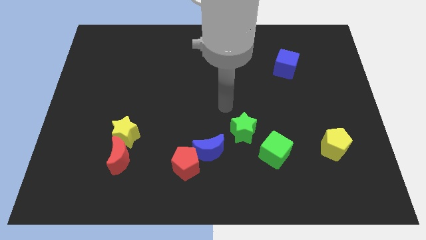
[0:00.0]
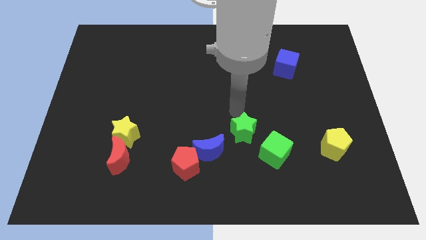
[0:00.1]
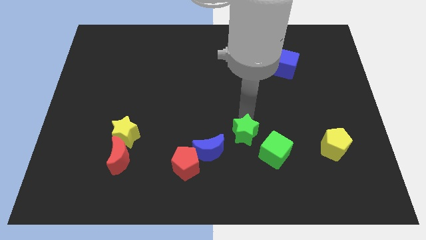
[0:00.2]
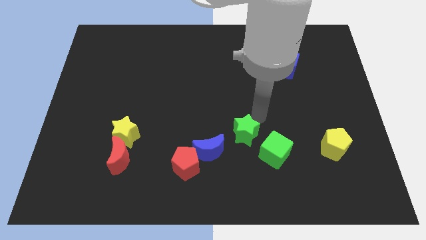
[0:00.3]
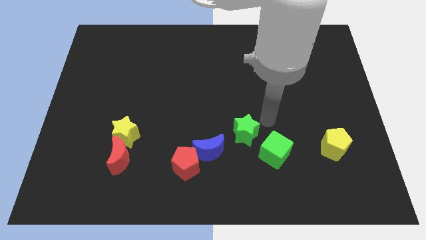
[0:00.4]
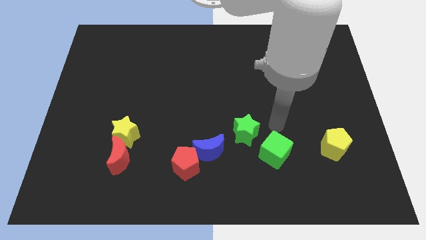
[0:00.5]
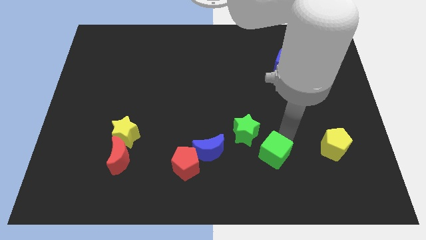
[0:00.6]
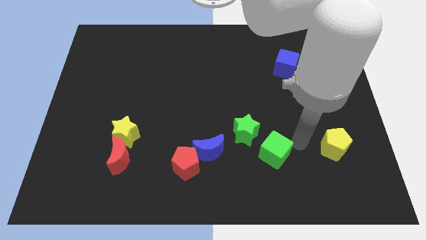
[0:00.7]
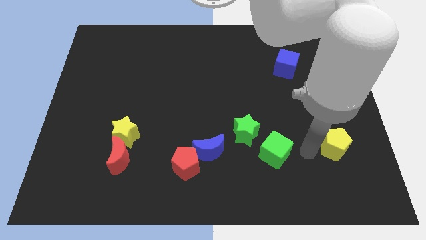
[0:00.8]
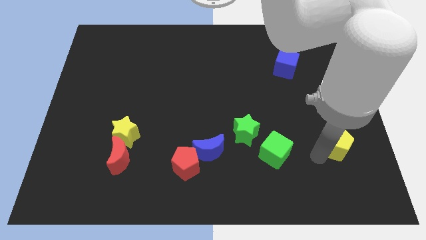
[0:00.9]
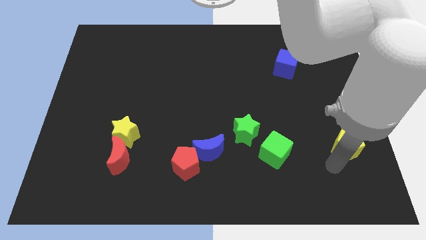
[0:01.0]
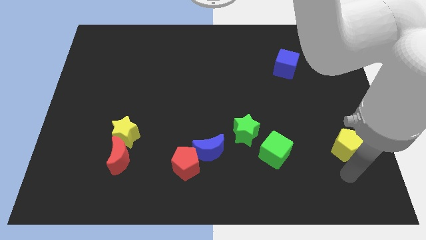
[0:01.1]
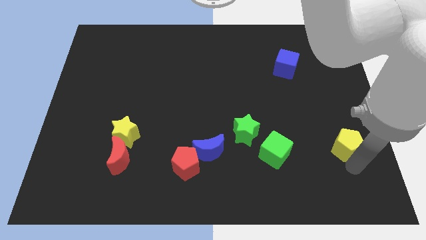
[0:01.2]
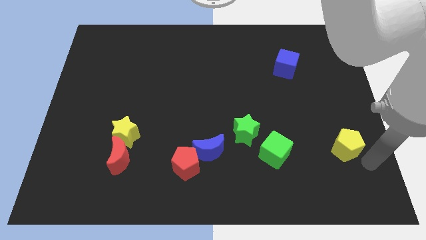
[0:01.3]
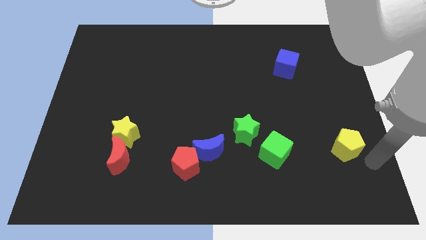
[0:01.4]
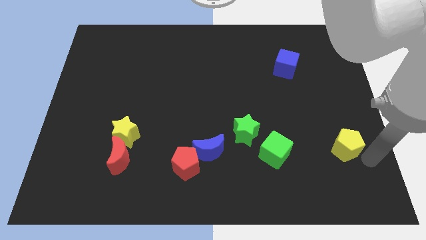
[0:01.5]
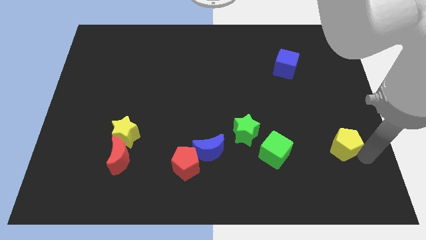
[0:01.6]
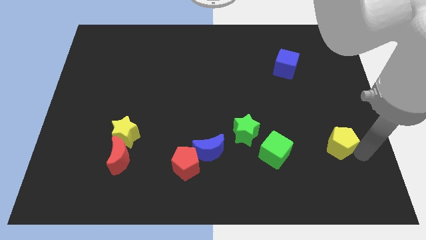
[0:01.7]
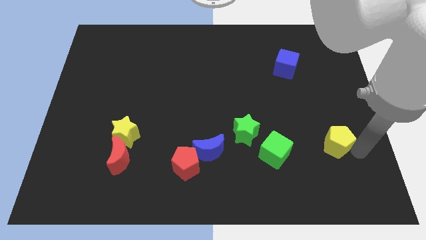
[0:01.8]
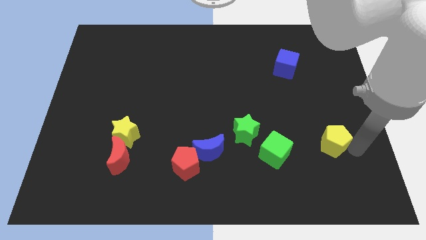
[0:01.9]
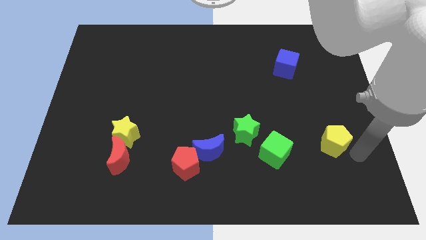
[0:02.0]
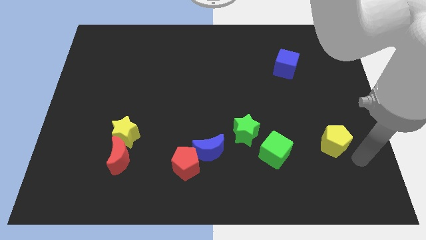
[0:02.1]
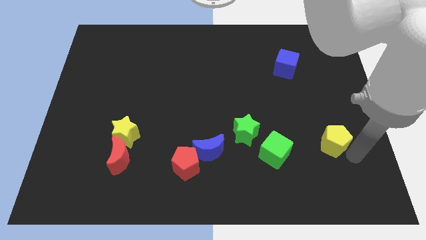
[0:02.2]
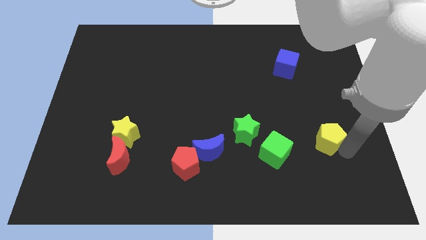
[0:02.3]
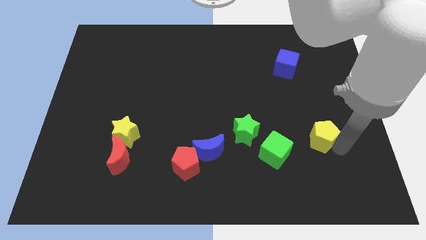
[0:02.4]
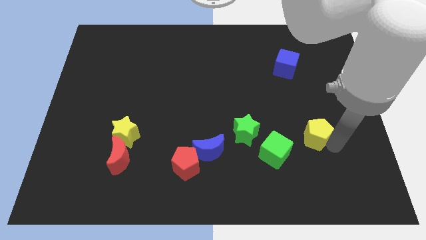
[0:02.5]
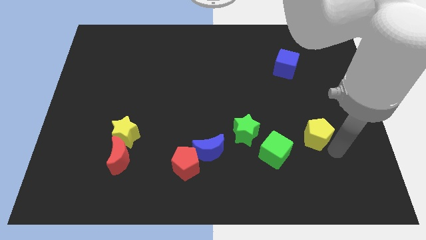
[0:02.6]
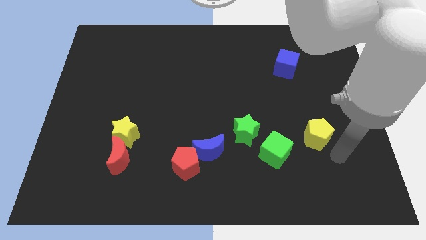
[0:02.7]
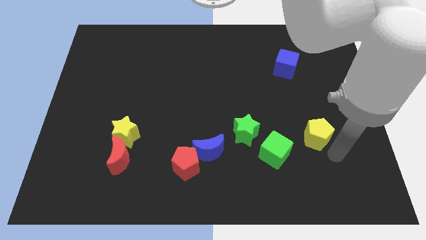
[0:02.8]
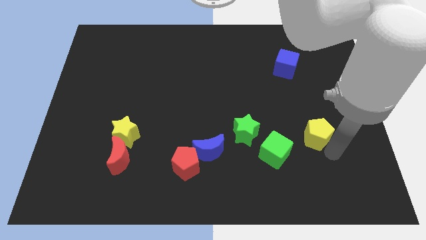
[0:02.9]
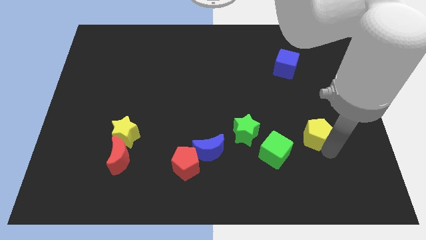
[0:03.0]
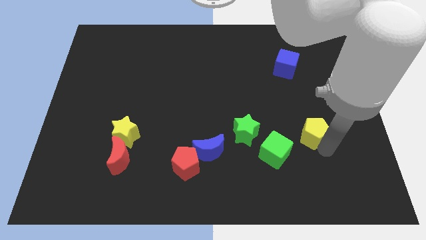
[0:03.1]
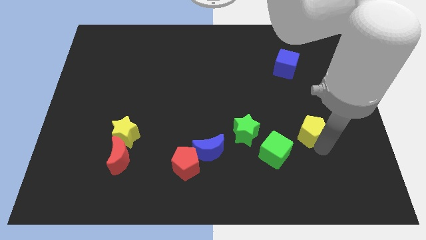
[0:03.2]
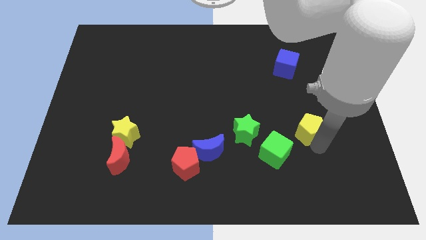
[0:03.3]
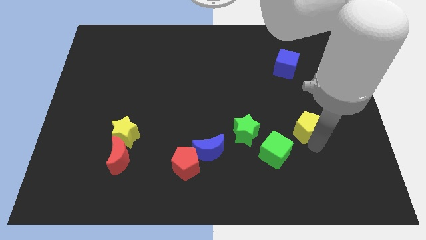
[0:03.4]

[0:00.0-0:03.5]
move the yellow pentagon somewhat diagonally upwards and left

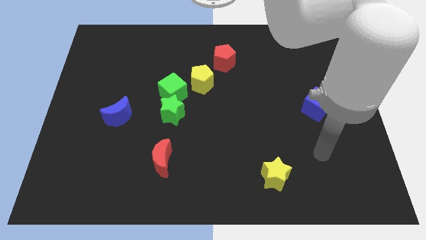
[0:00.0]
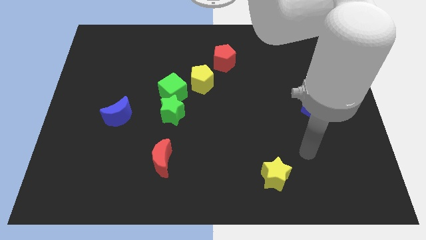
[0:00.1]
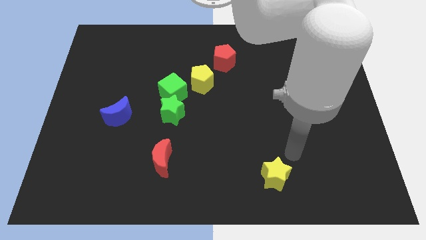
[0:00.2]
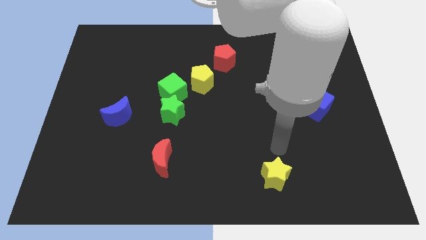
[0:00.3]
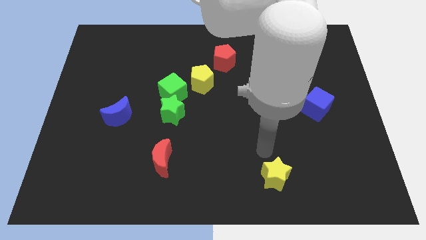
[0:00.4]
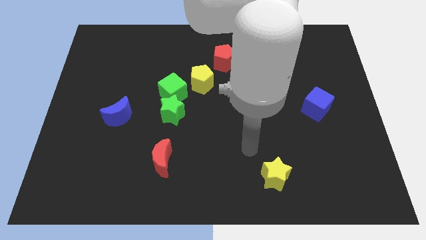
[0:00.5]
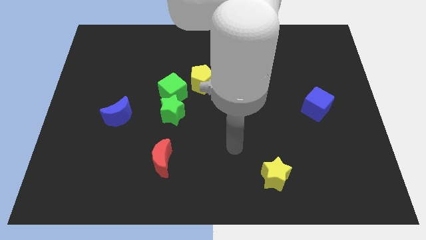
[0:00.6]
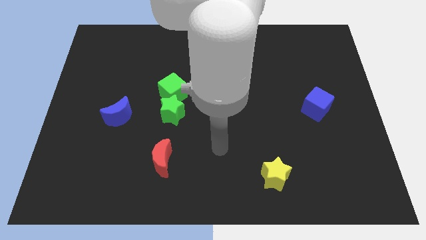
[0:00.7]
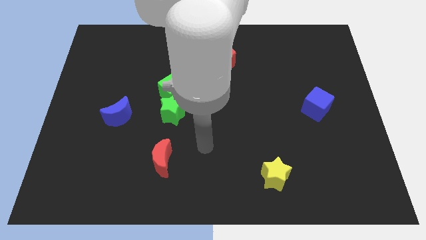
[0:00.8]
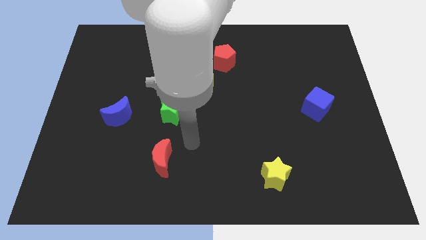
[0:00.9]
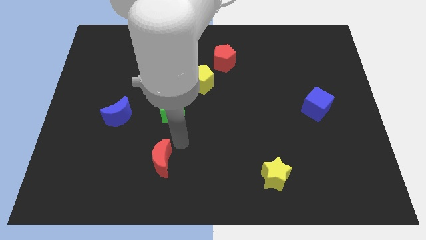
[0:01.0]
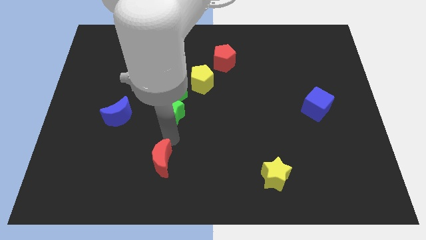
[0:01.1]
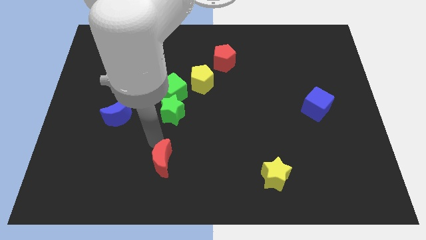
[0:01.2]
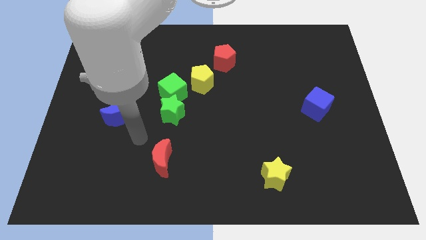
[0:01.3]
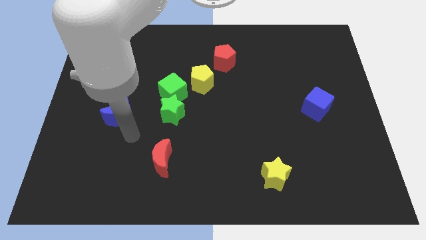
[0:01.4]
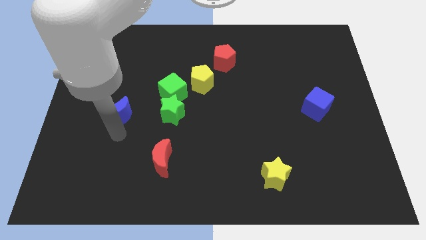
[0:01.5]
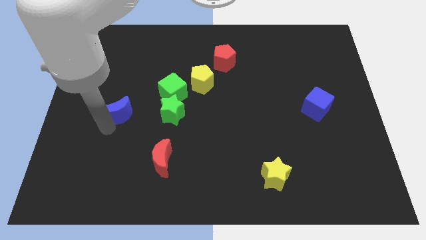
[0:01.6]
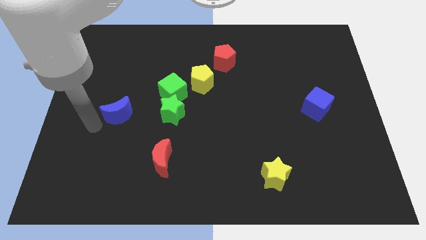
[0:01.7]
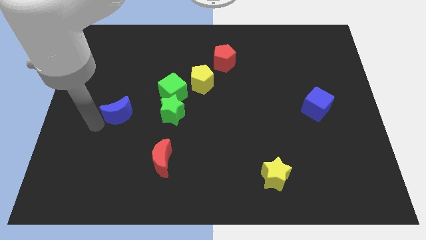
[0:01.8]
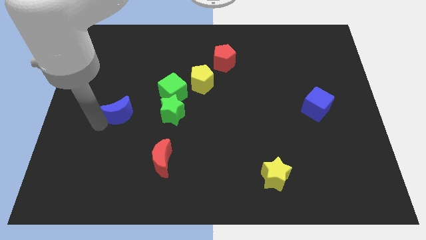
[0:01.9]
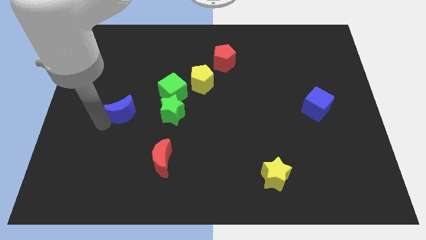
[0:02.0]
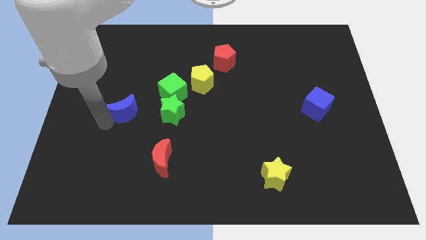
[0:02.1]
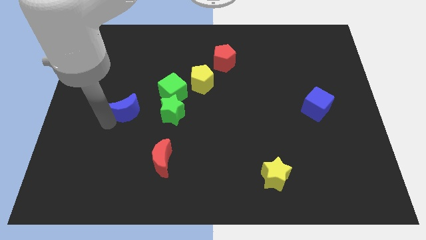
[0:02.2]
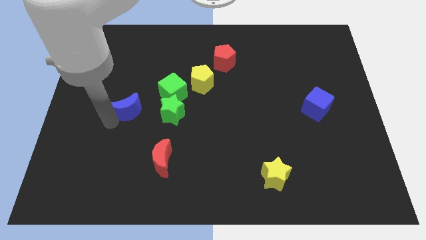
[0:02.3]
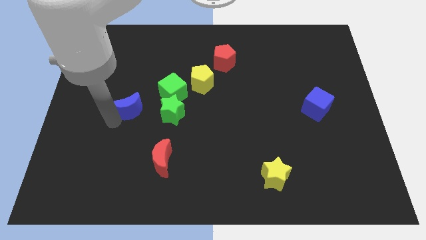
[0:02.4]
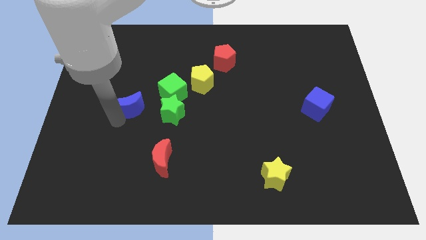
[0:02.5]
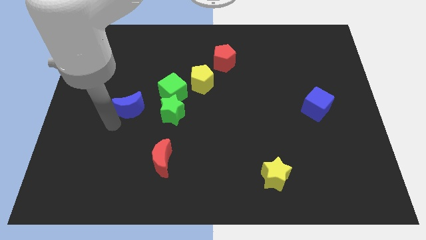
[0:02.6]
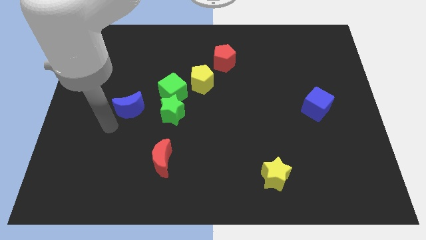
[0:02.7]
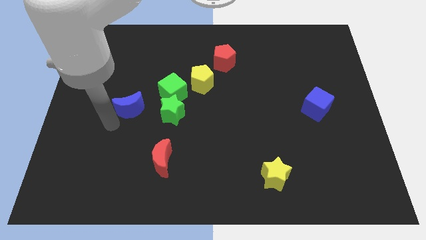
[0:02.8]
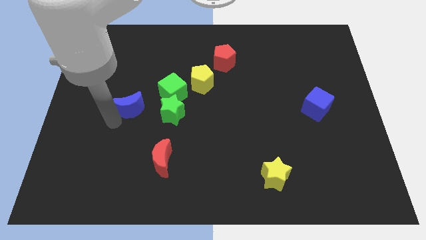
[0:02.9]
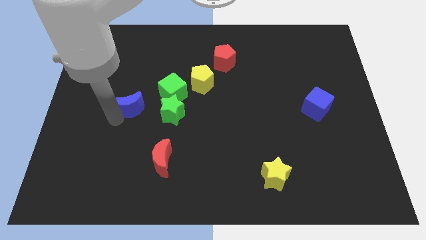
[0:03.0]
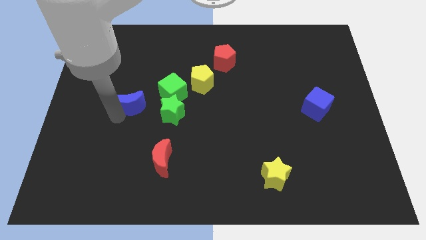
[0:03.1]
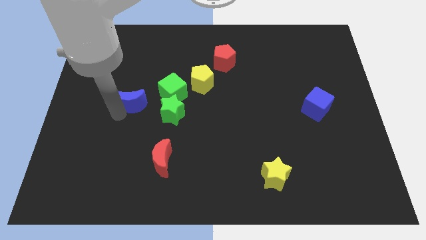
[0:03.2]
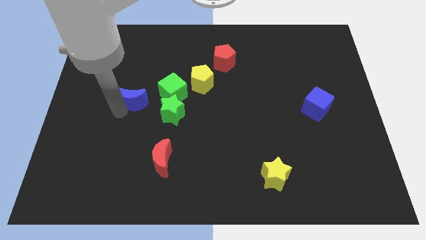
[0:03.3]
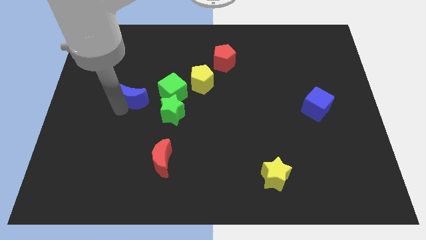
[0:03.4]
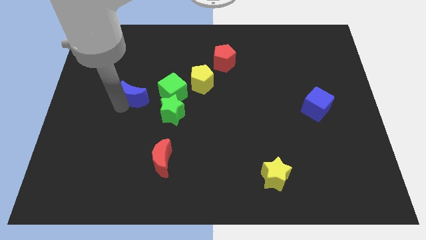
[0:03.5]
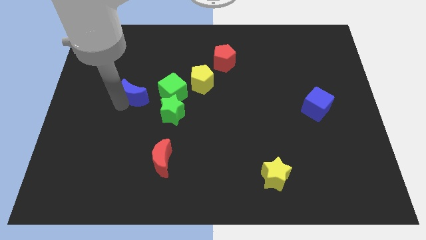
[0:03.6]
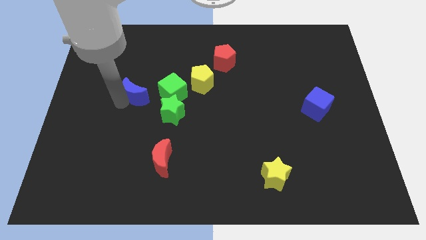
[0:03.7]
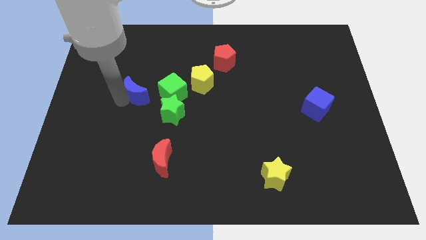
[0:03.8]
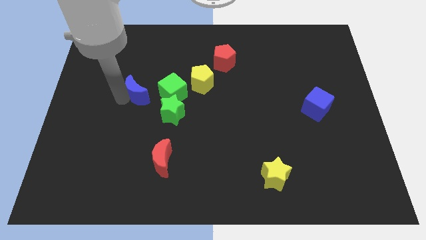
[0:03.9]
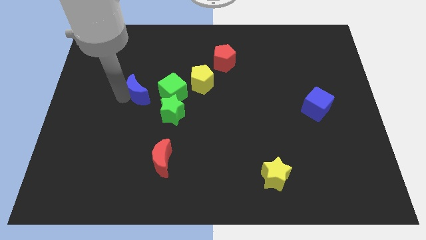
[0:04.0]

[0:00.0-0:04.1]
push the blue moon slightly upwards and then right

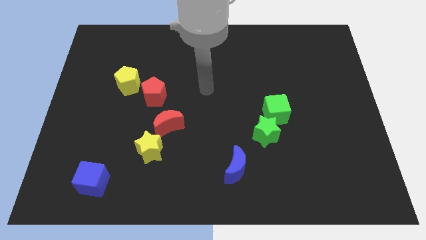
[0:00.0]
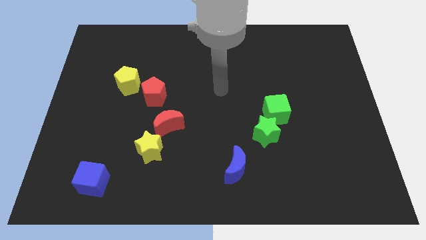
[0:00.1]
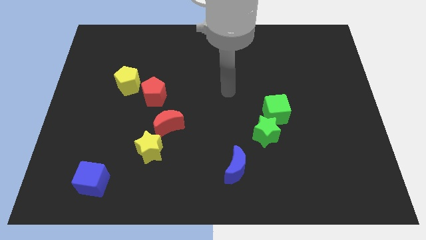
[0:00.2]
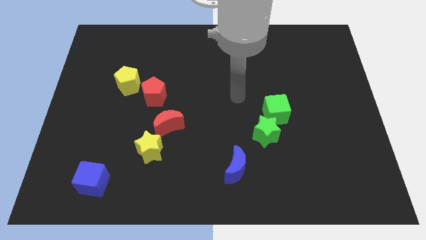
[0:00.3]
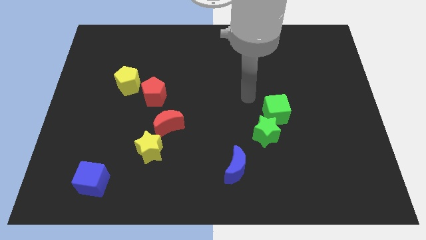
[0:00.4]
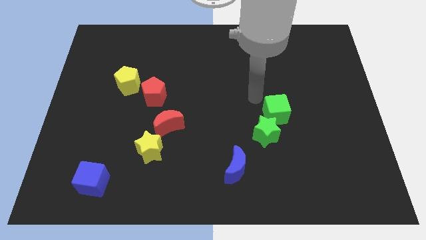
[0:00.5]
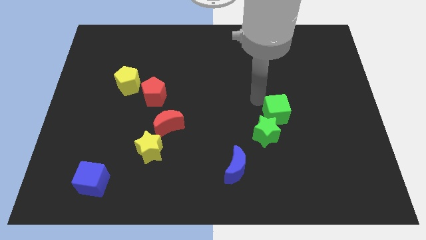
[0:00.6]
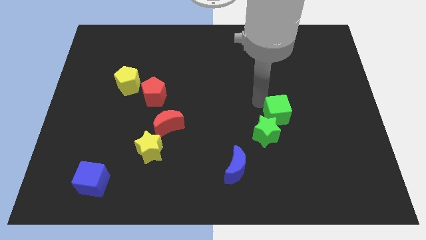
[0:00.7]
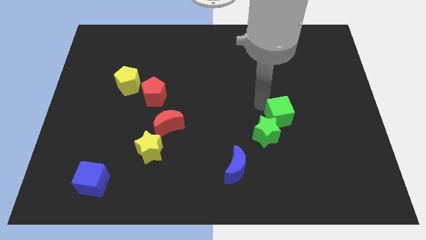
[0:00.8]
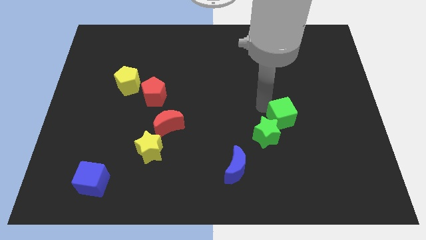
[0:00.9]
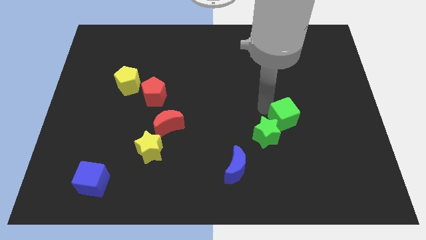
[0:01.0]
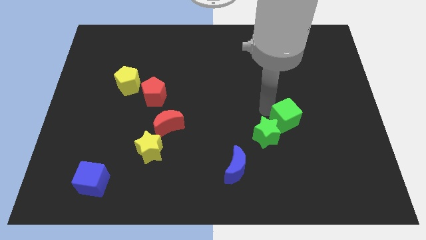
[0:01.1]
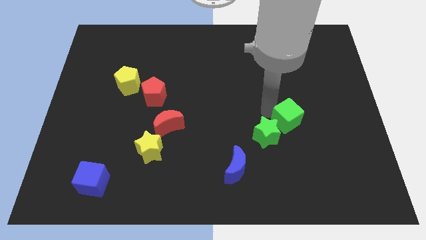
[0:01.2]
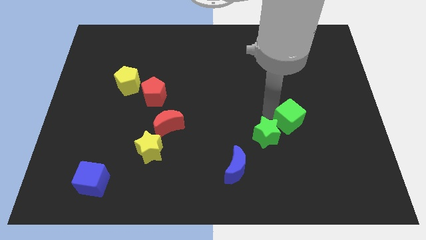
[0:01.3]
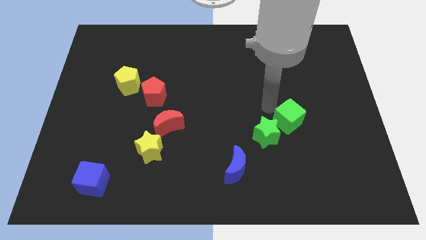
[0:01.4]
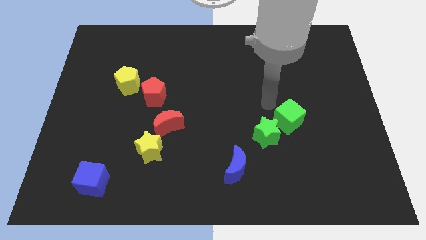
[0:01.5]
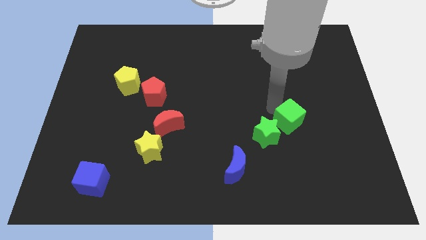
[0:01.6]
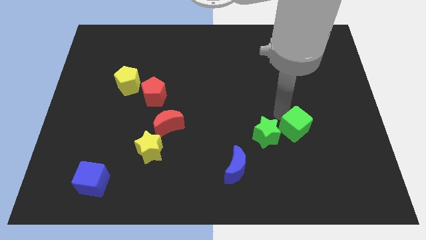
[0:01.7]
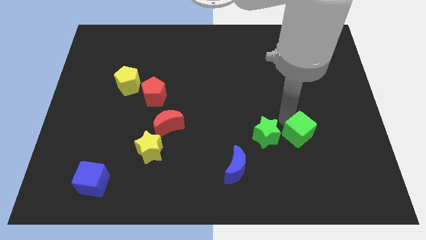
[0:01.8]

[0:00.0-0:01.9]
push the green cube a bit diagonally down and to the right
